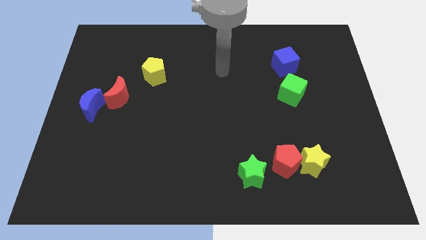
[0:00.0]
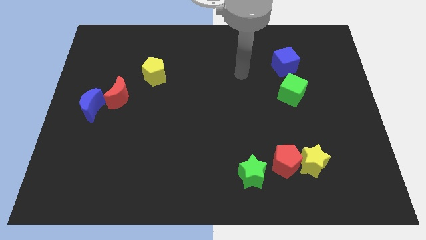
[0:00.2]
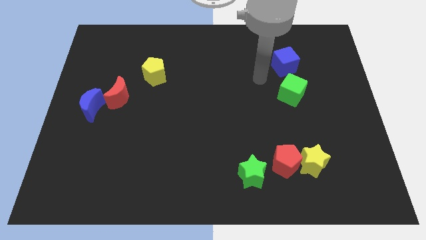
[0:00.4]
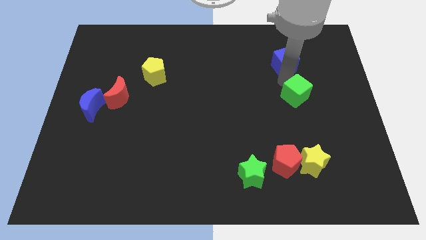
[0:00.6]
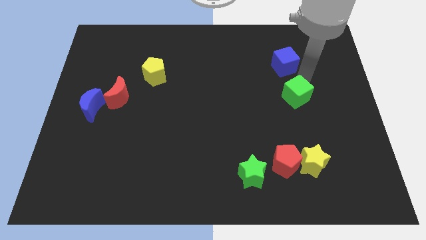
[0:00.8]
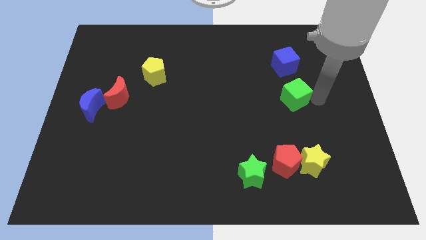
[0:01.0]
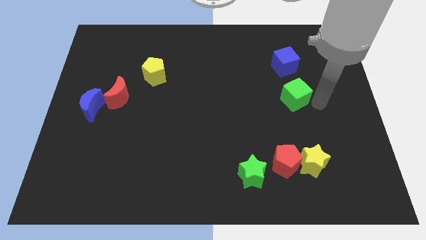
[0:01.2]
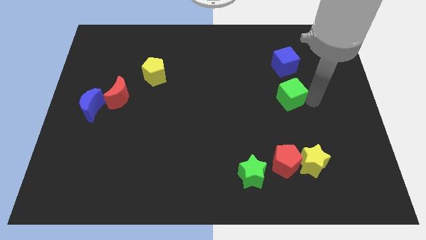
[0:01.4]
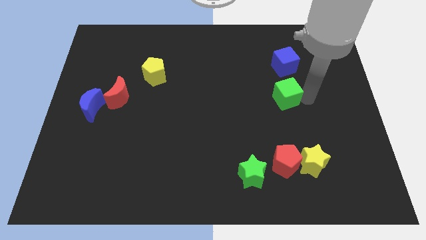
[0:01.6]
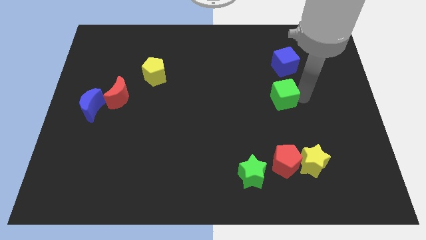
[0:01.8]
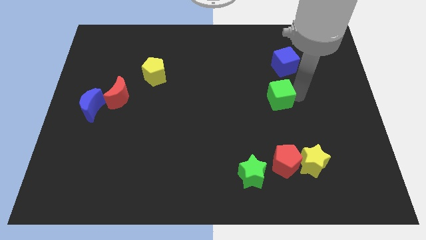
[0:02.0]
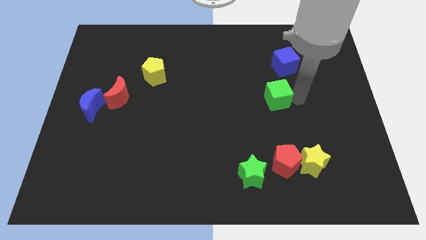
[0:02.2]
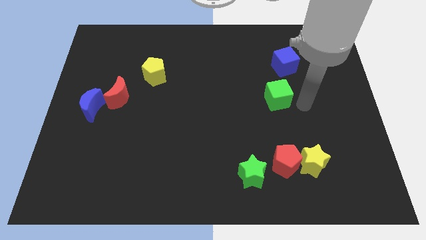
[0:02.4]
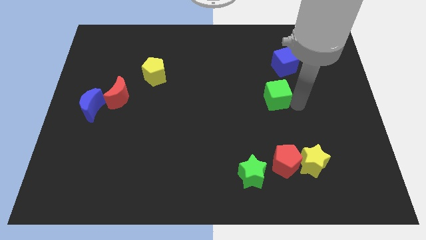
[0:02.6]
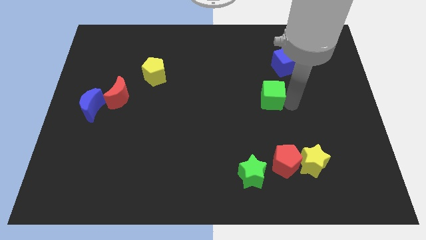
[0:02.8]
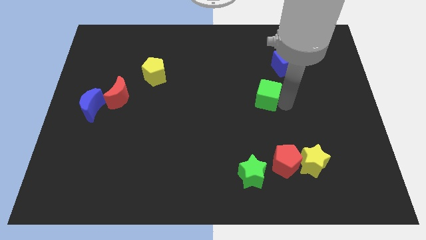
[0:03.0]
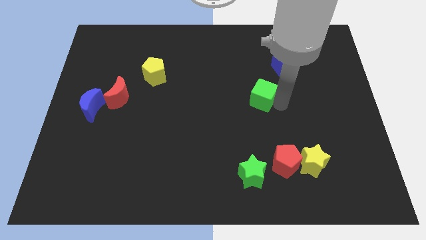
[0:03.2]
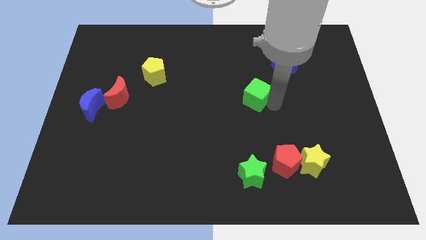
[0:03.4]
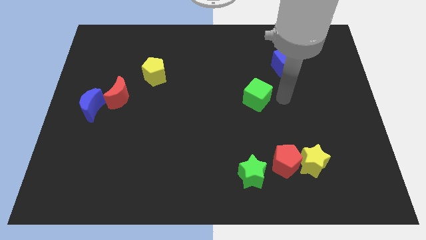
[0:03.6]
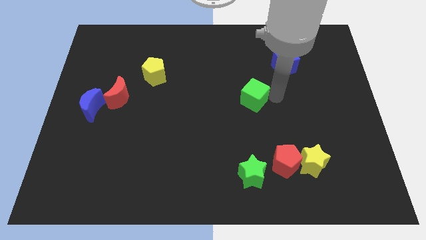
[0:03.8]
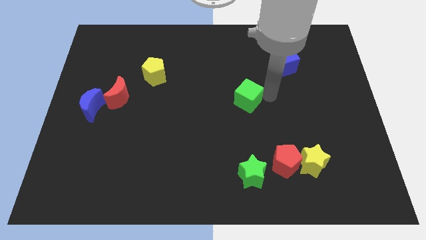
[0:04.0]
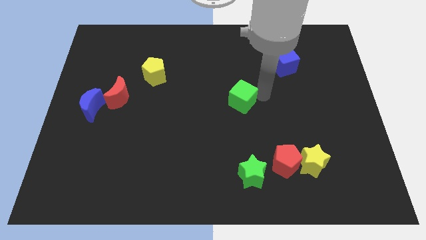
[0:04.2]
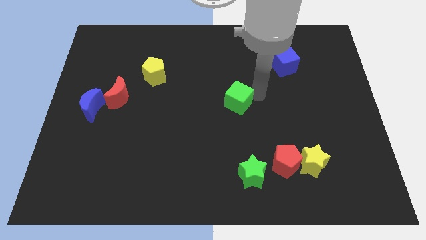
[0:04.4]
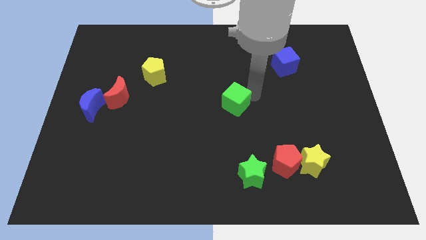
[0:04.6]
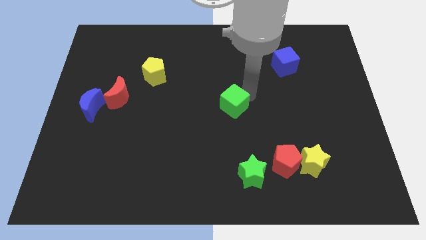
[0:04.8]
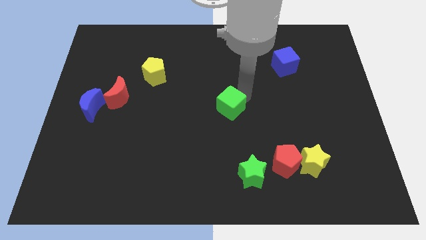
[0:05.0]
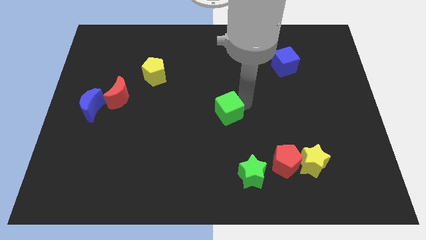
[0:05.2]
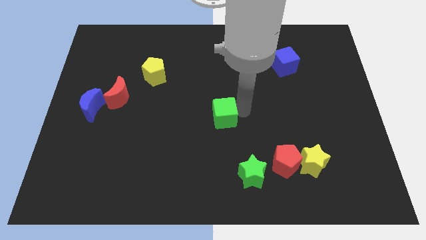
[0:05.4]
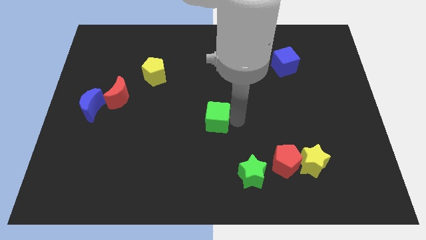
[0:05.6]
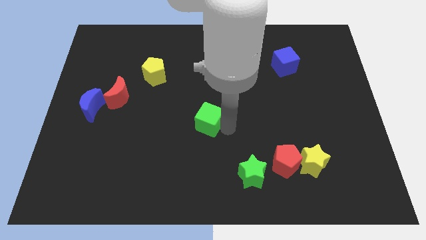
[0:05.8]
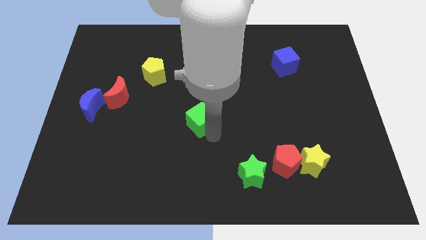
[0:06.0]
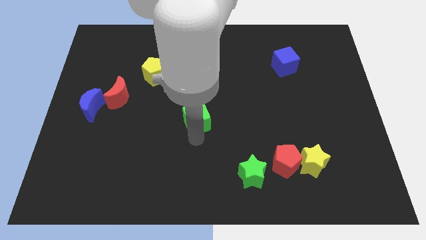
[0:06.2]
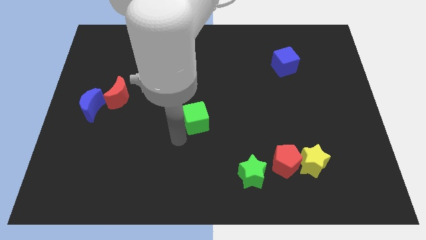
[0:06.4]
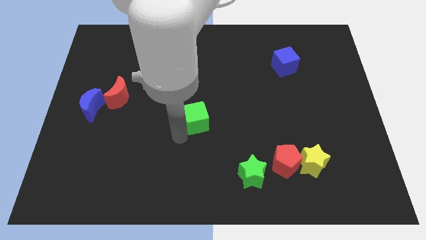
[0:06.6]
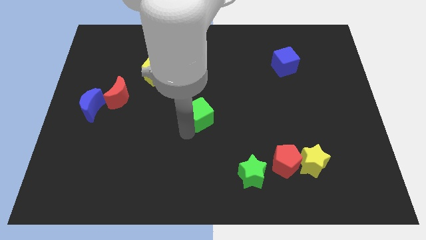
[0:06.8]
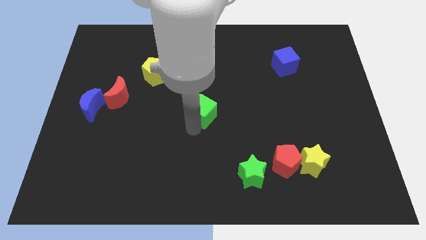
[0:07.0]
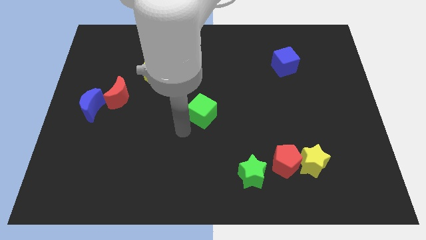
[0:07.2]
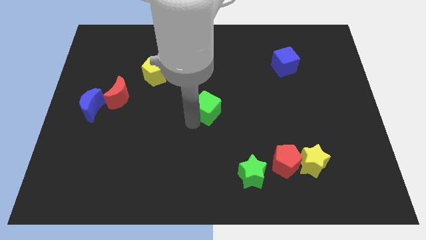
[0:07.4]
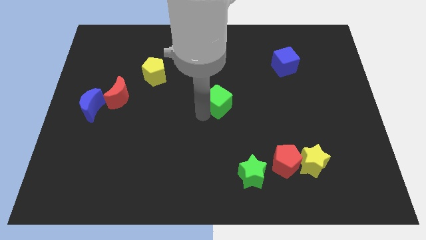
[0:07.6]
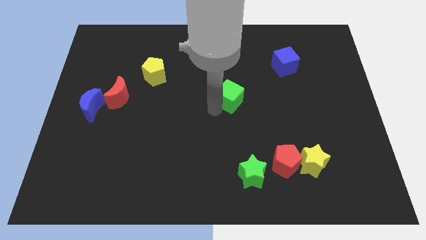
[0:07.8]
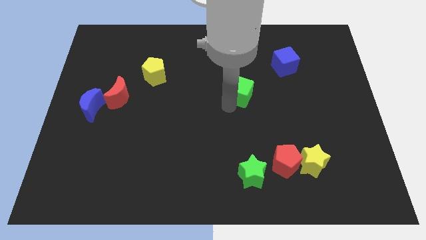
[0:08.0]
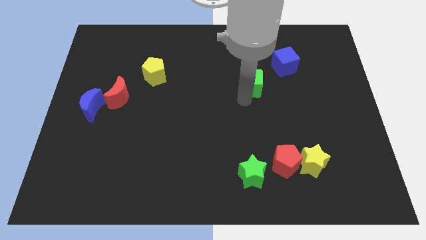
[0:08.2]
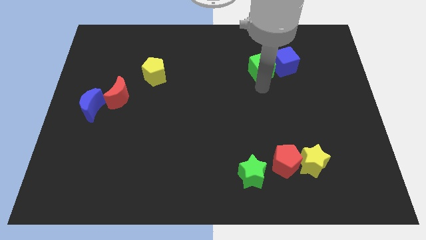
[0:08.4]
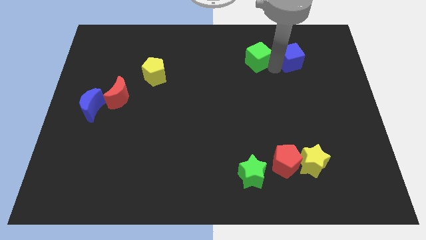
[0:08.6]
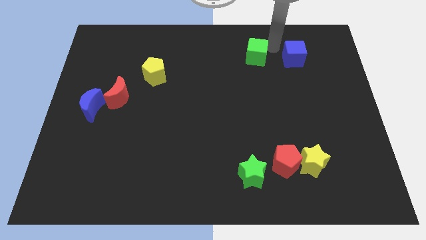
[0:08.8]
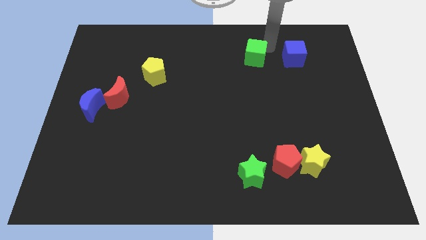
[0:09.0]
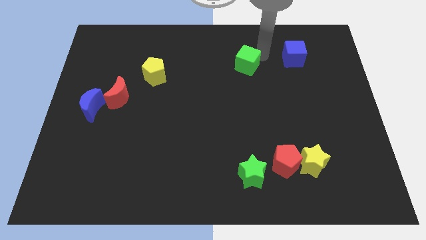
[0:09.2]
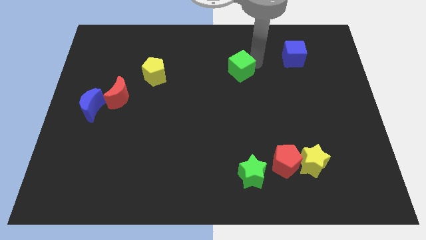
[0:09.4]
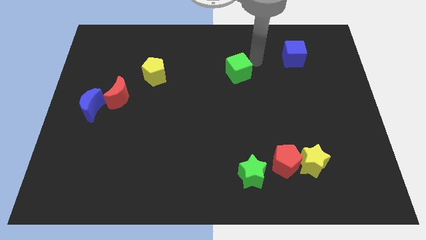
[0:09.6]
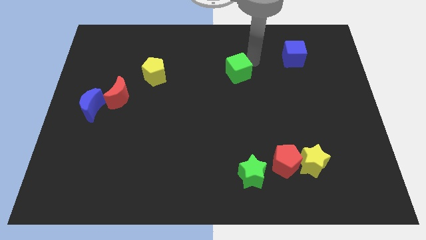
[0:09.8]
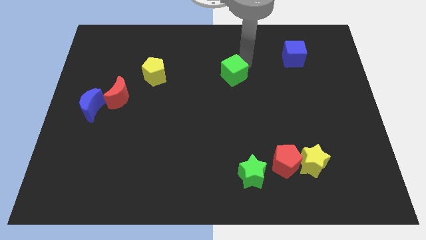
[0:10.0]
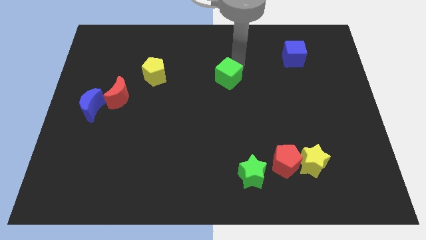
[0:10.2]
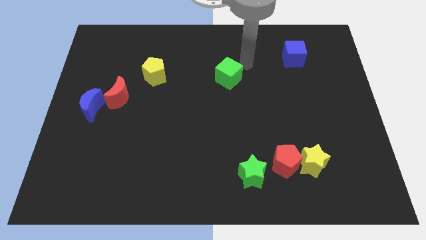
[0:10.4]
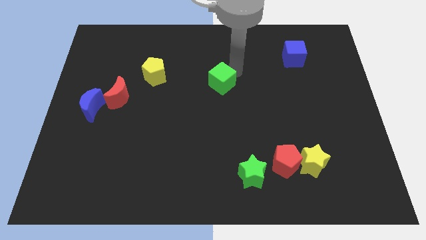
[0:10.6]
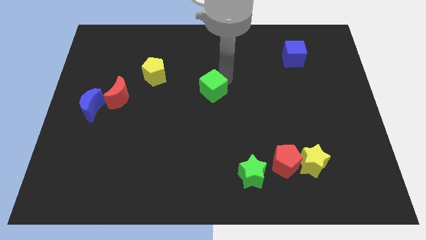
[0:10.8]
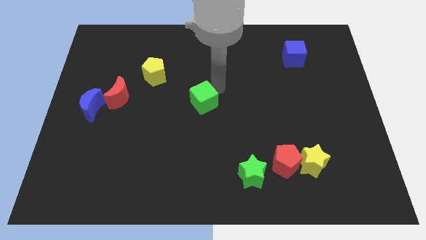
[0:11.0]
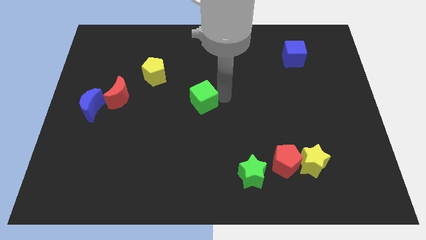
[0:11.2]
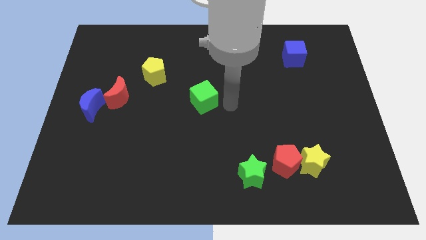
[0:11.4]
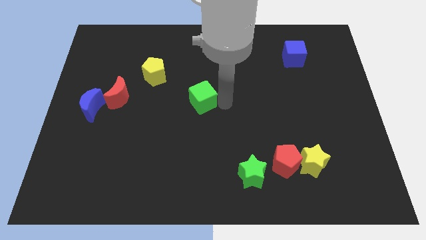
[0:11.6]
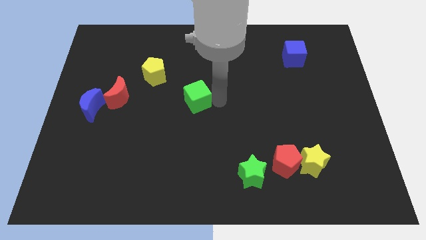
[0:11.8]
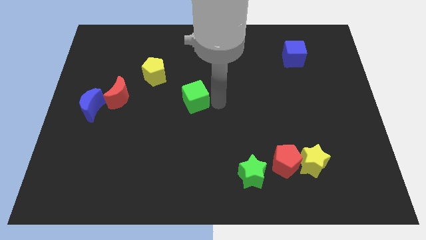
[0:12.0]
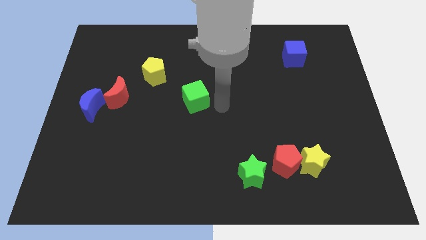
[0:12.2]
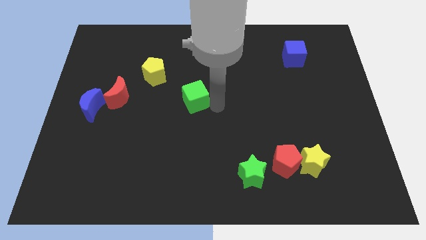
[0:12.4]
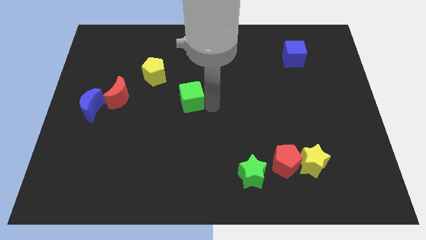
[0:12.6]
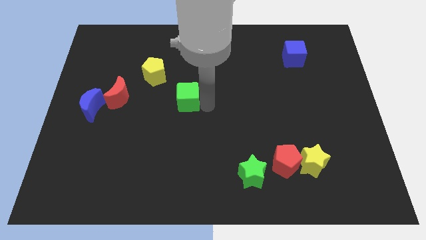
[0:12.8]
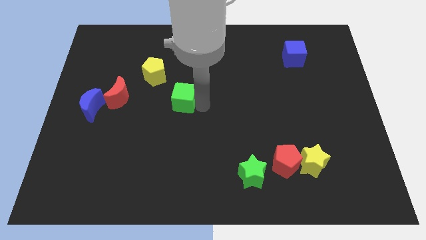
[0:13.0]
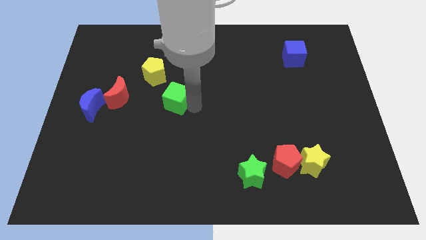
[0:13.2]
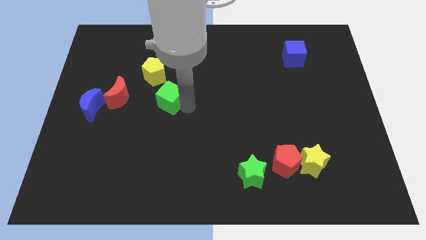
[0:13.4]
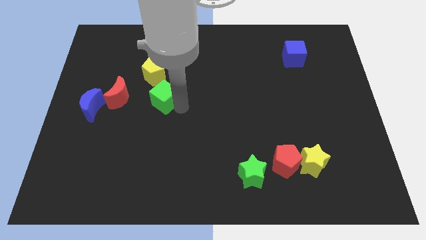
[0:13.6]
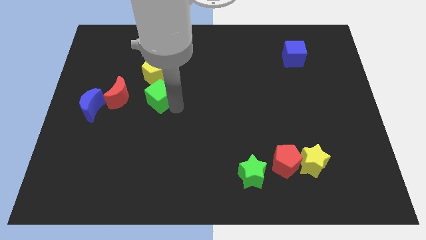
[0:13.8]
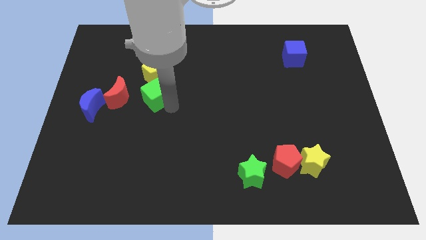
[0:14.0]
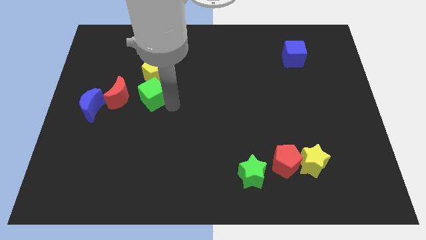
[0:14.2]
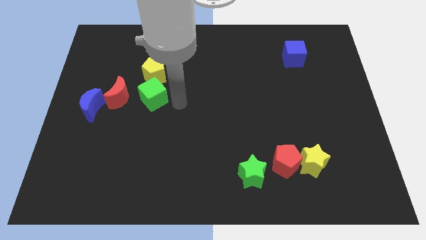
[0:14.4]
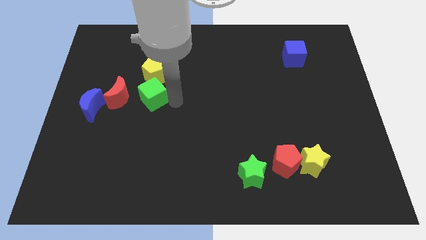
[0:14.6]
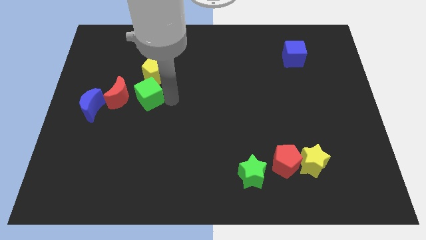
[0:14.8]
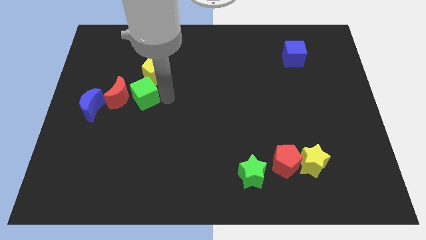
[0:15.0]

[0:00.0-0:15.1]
put the green cube to the red moon
